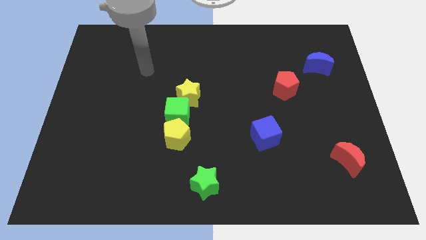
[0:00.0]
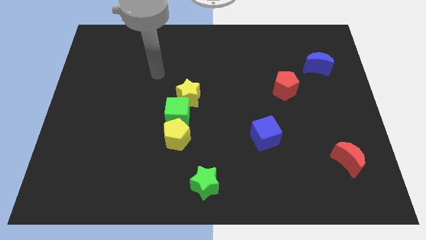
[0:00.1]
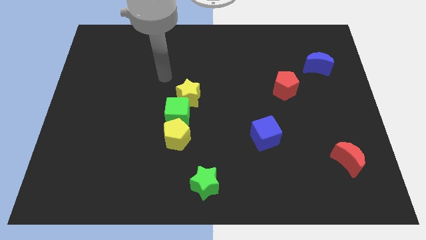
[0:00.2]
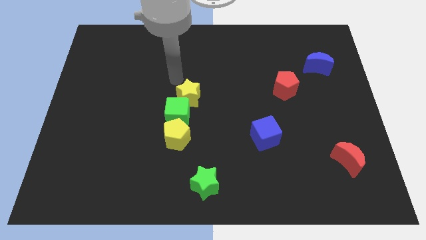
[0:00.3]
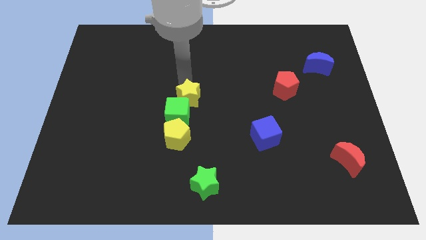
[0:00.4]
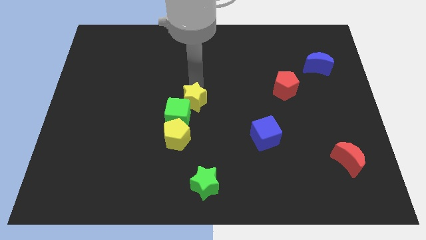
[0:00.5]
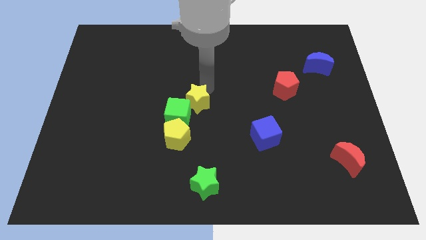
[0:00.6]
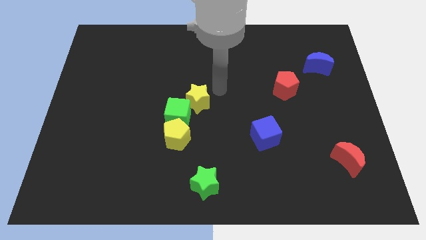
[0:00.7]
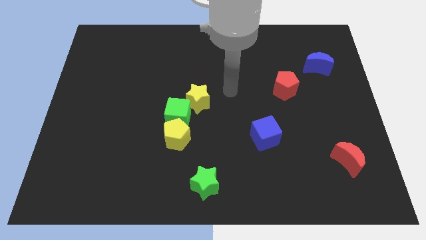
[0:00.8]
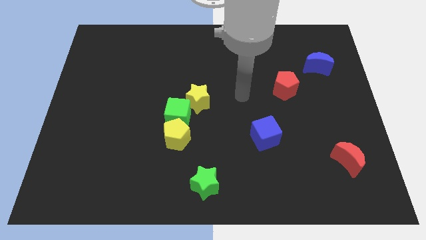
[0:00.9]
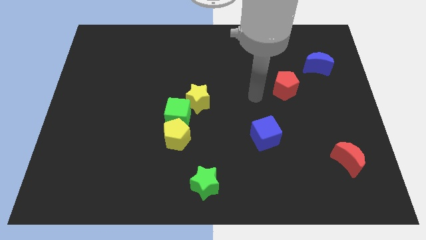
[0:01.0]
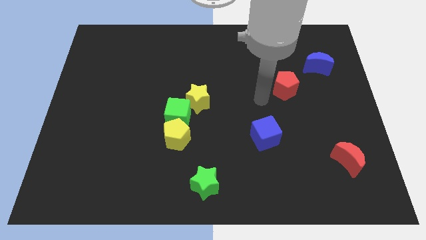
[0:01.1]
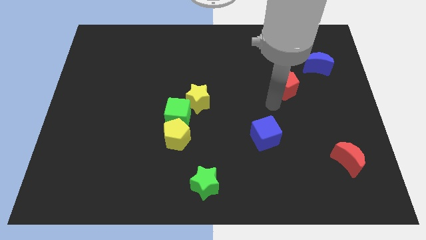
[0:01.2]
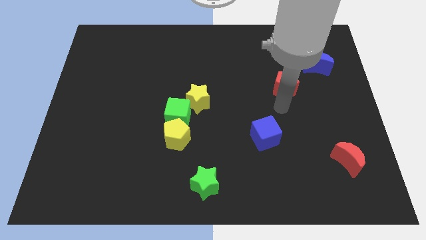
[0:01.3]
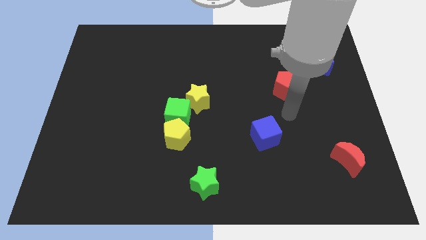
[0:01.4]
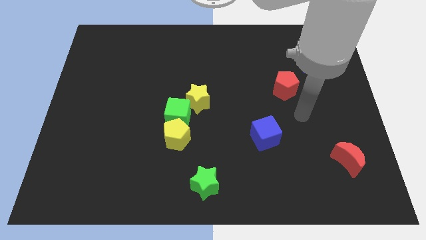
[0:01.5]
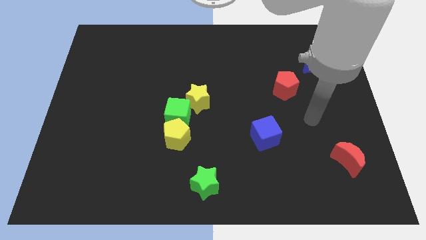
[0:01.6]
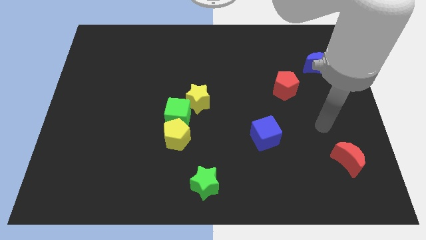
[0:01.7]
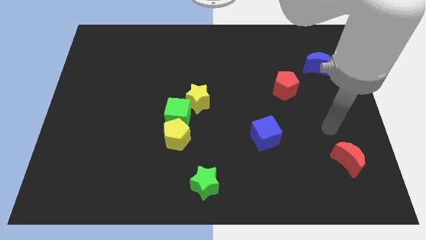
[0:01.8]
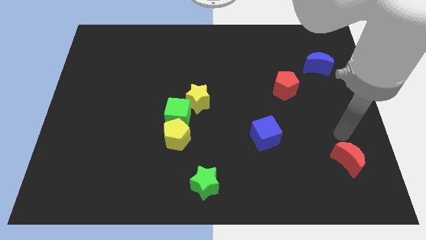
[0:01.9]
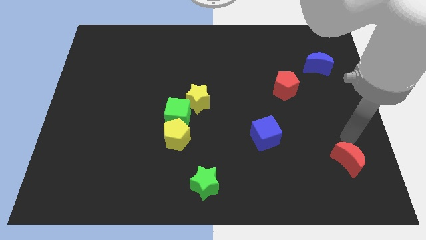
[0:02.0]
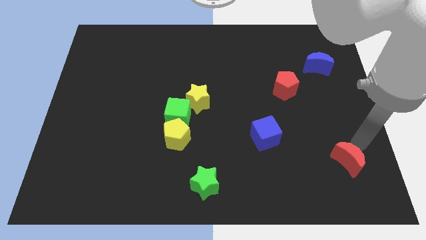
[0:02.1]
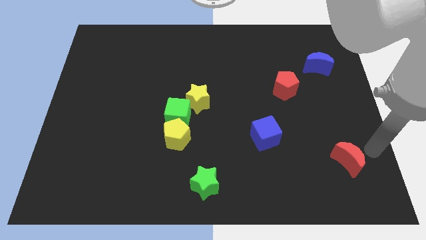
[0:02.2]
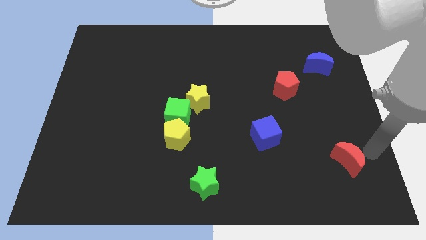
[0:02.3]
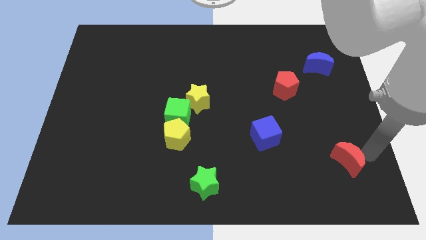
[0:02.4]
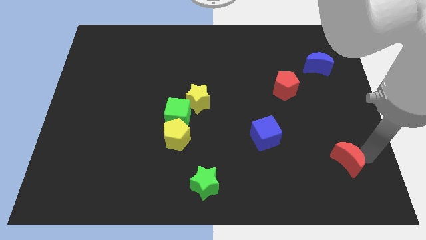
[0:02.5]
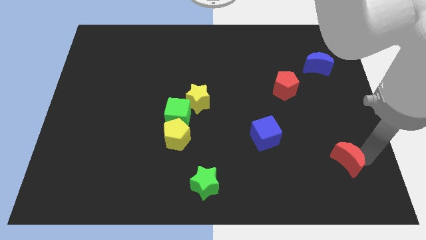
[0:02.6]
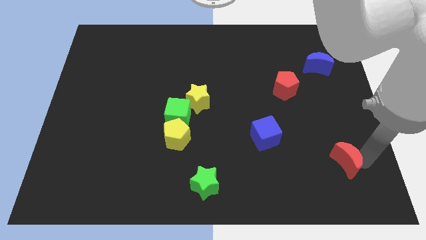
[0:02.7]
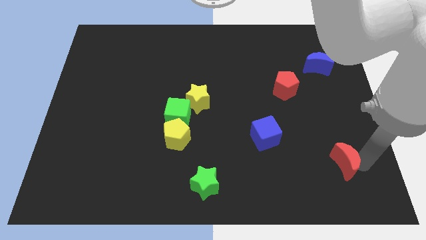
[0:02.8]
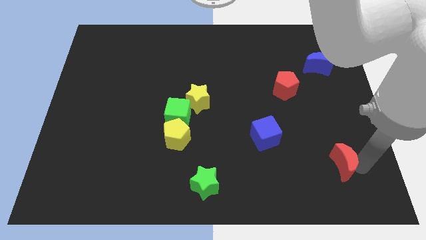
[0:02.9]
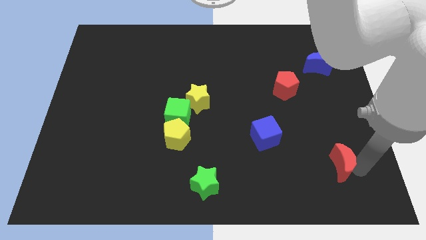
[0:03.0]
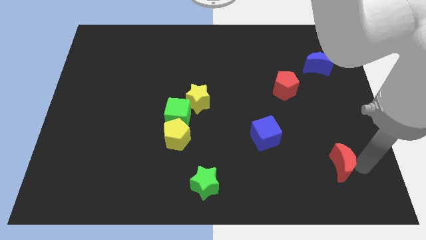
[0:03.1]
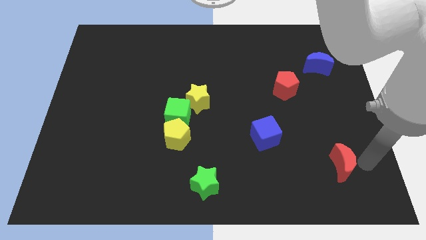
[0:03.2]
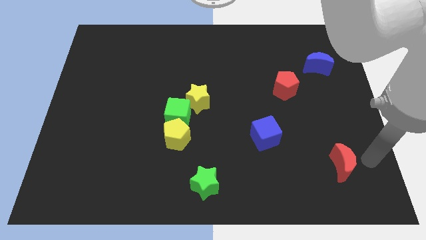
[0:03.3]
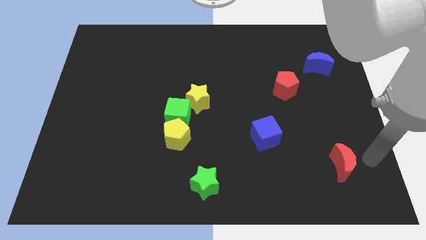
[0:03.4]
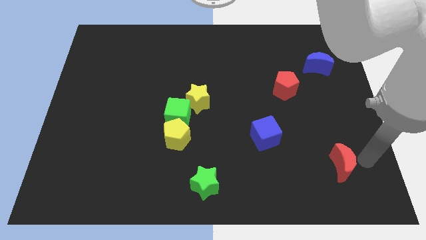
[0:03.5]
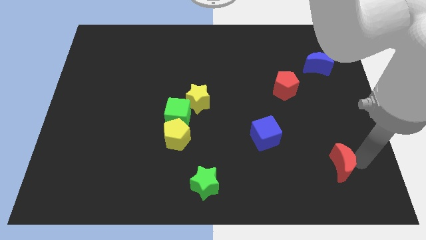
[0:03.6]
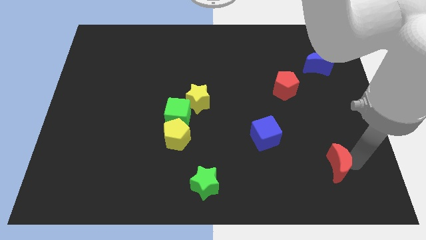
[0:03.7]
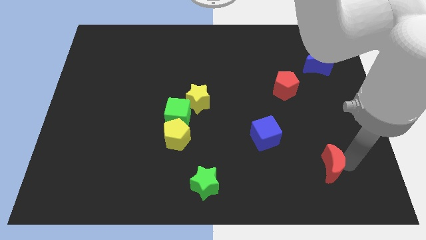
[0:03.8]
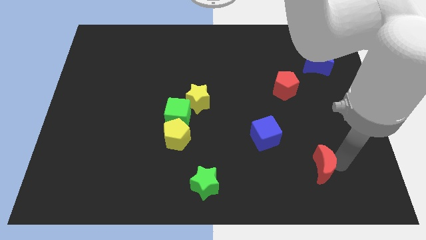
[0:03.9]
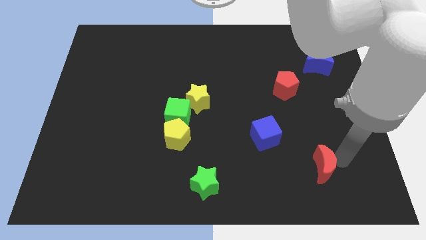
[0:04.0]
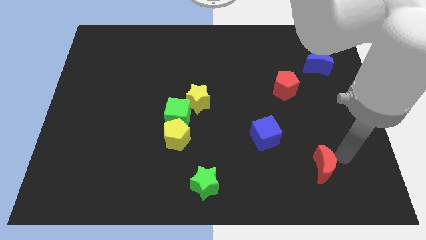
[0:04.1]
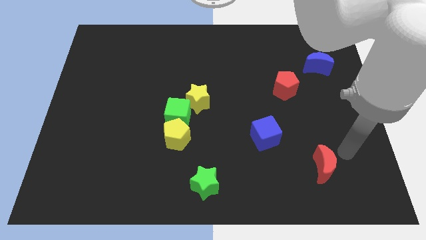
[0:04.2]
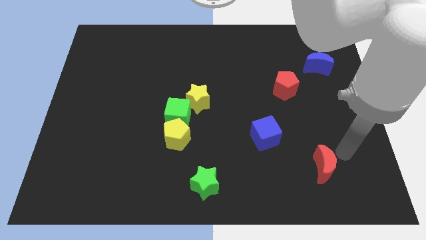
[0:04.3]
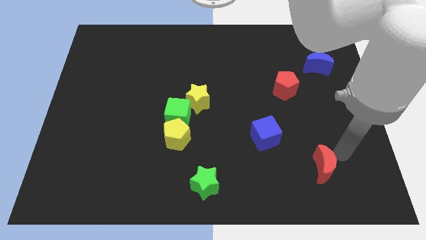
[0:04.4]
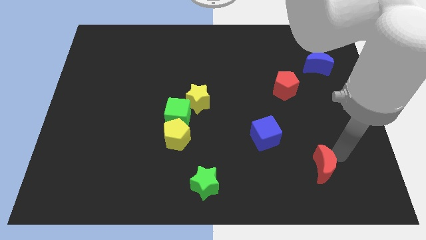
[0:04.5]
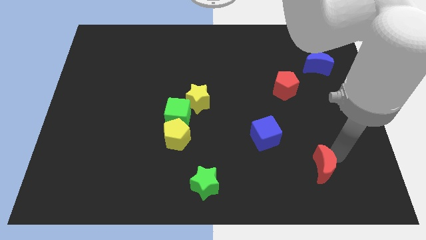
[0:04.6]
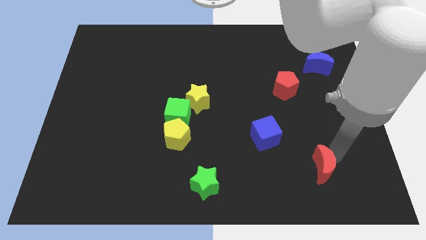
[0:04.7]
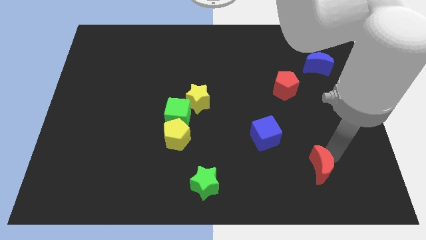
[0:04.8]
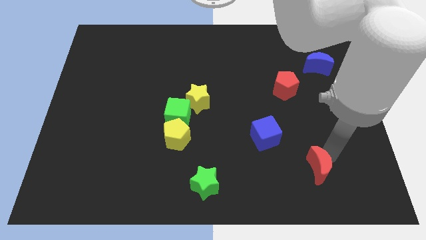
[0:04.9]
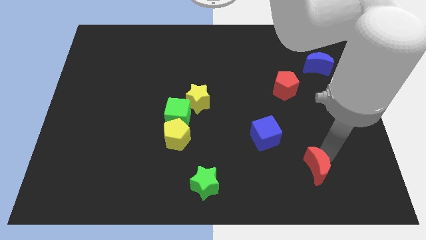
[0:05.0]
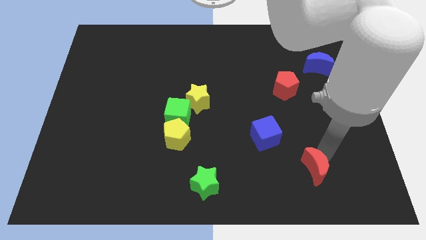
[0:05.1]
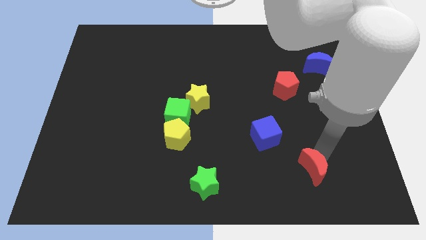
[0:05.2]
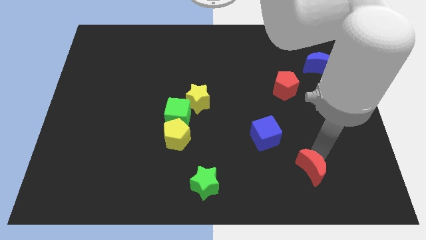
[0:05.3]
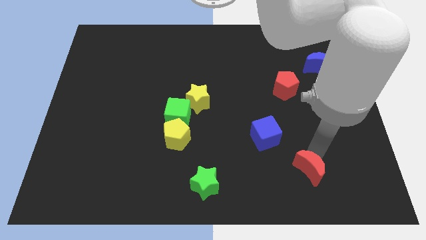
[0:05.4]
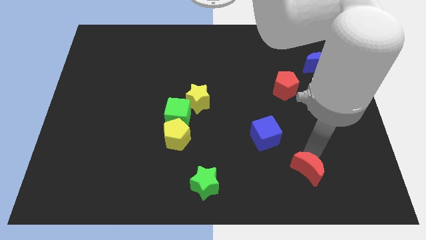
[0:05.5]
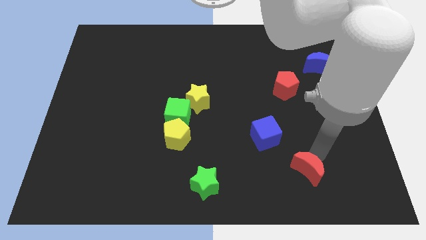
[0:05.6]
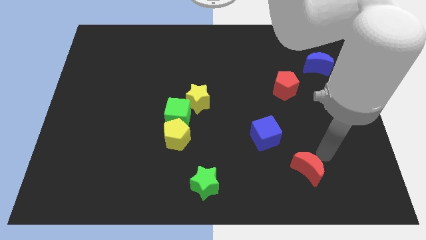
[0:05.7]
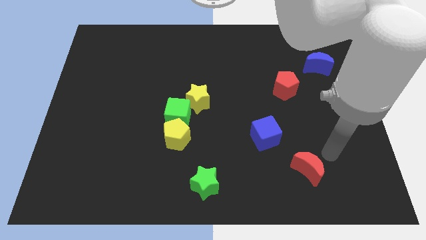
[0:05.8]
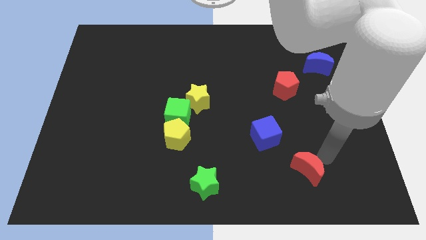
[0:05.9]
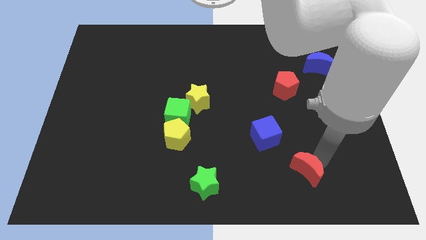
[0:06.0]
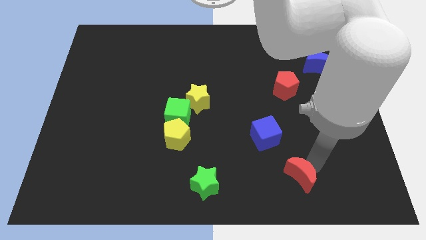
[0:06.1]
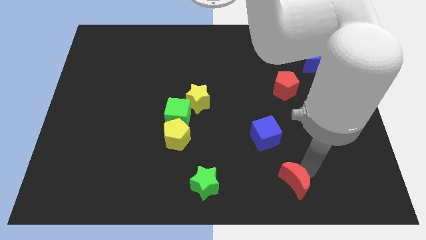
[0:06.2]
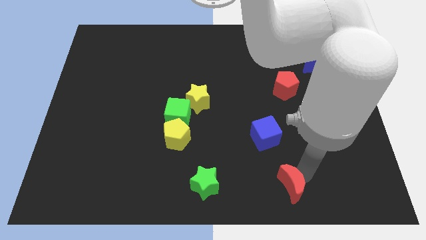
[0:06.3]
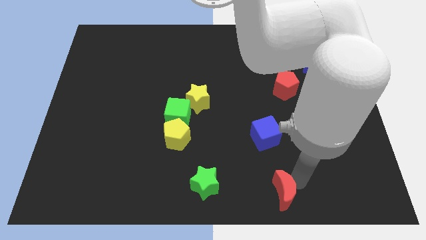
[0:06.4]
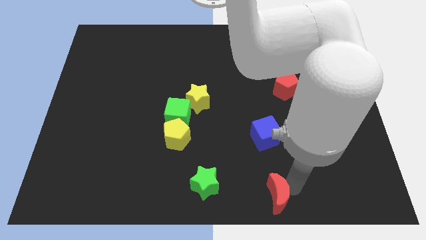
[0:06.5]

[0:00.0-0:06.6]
slide the red moon to the bottom
